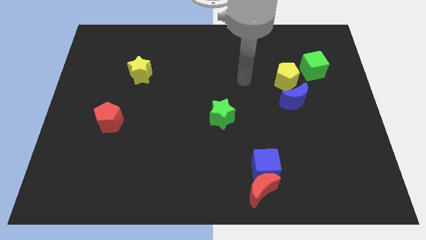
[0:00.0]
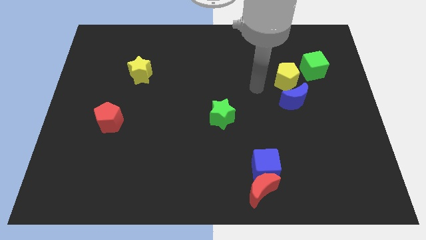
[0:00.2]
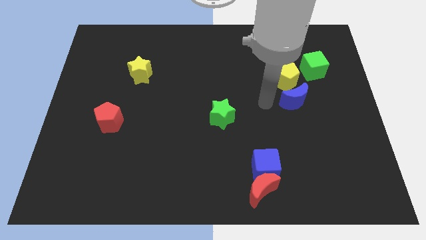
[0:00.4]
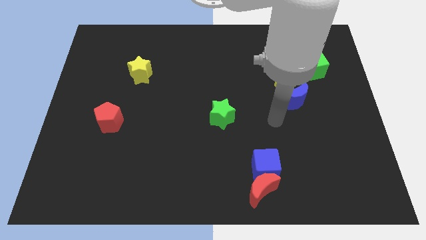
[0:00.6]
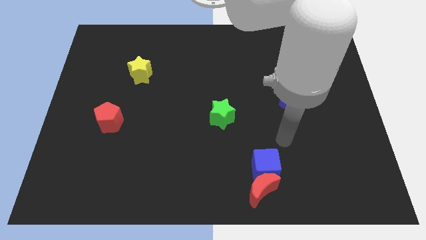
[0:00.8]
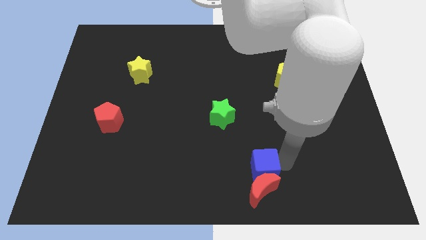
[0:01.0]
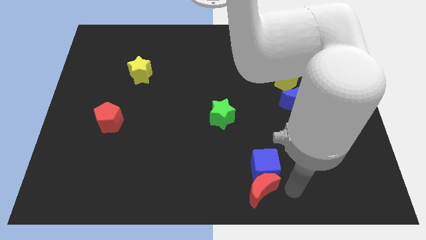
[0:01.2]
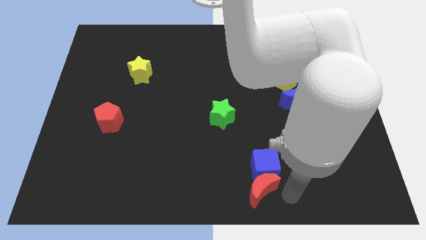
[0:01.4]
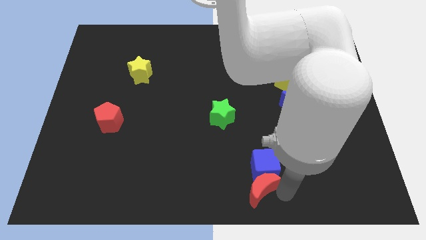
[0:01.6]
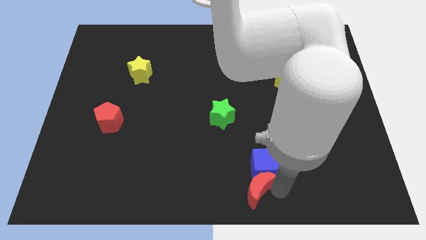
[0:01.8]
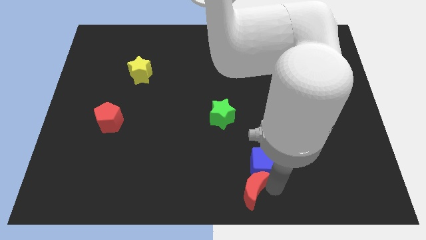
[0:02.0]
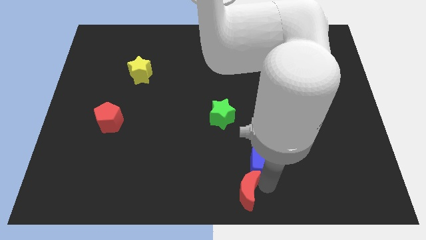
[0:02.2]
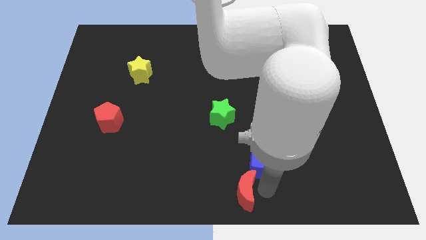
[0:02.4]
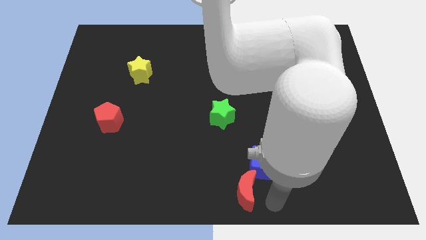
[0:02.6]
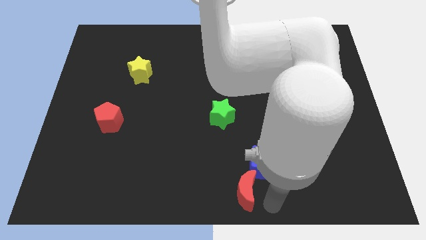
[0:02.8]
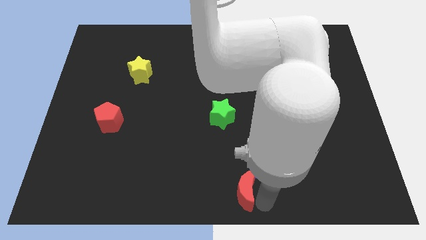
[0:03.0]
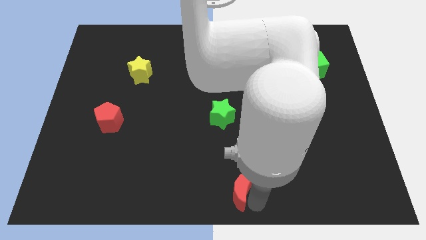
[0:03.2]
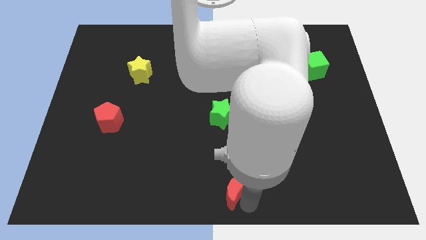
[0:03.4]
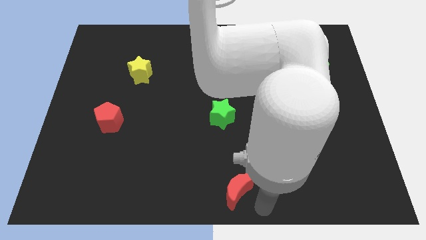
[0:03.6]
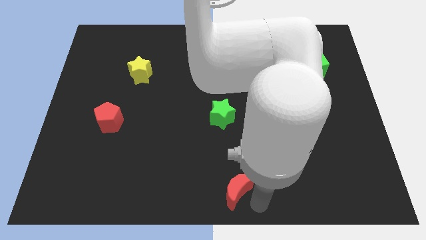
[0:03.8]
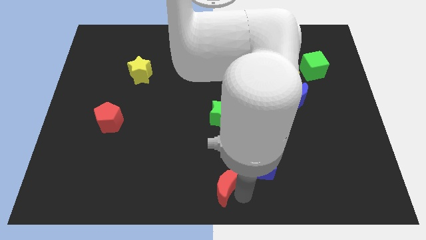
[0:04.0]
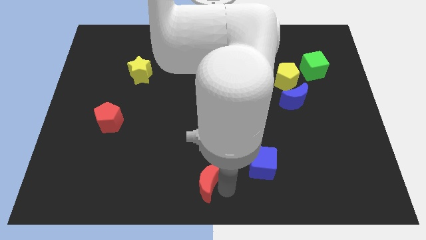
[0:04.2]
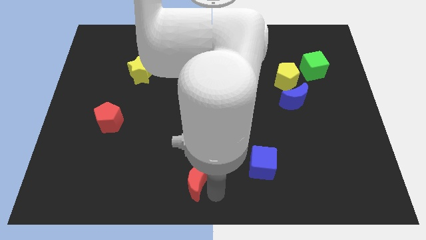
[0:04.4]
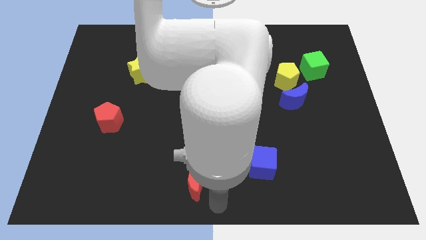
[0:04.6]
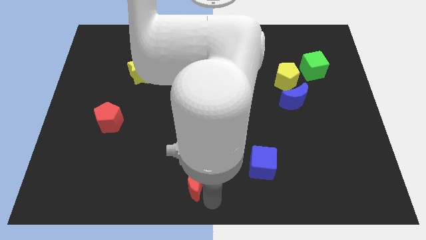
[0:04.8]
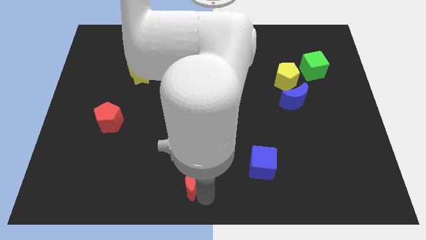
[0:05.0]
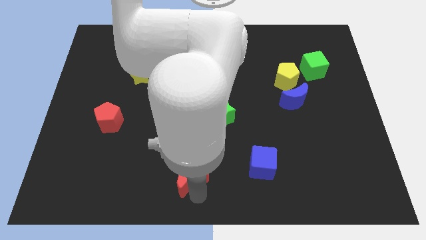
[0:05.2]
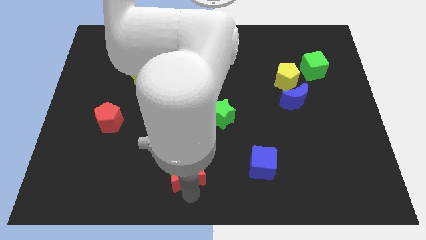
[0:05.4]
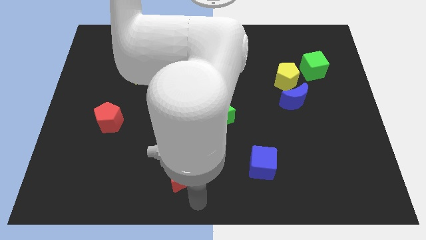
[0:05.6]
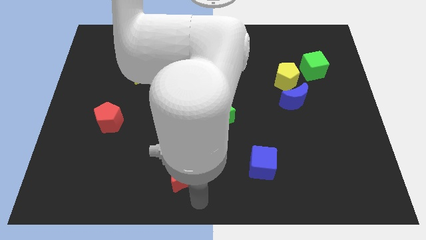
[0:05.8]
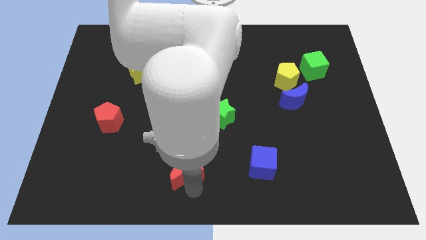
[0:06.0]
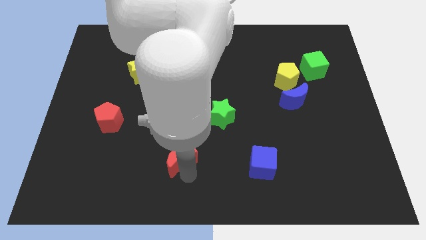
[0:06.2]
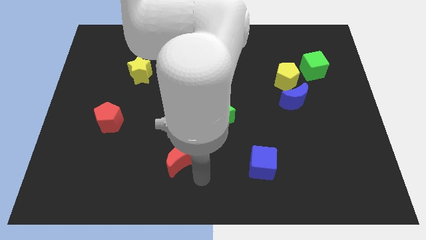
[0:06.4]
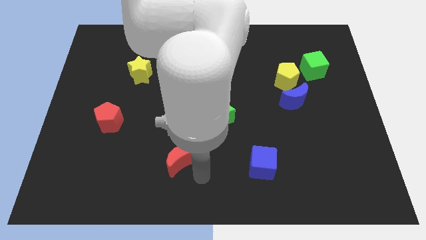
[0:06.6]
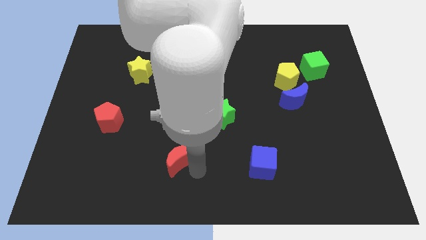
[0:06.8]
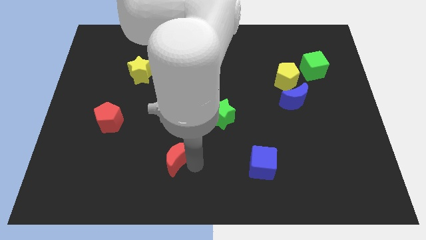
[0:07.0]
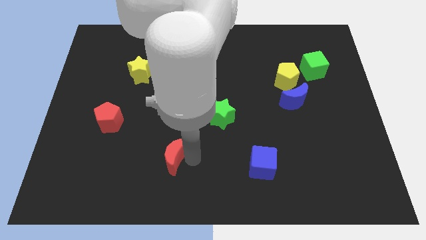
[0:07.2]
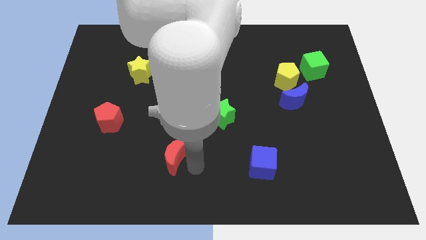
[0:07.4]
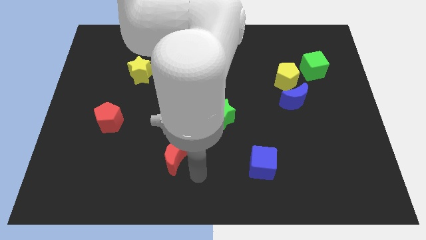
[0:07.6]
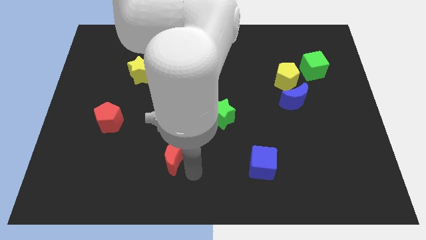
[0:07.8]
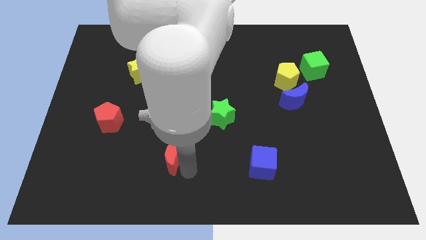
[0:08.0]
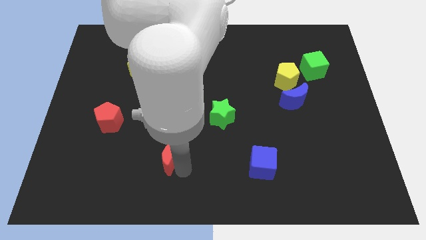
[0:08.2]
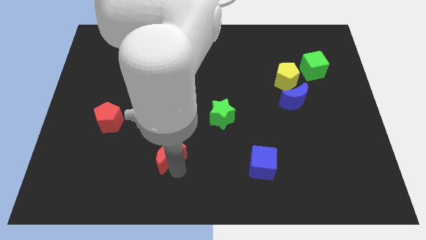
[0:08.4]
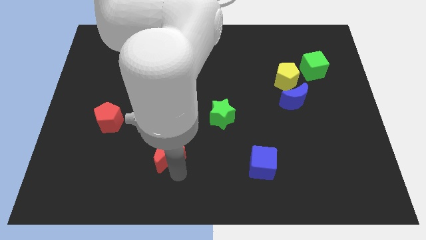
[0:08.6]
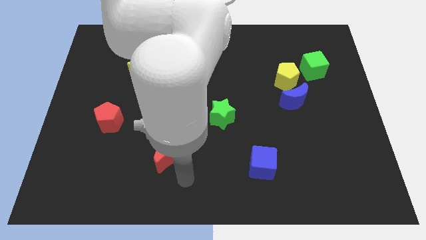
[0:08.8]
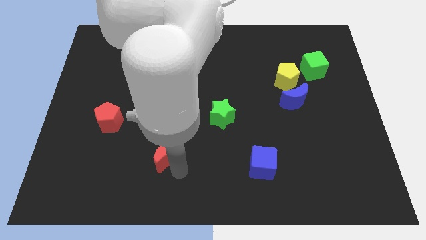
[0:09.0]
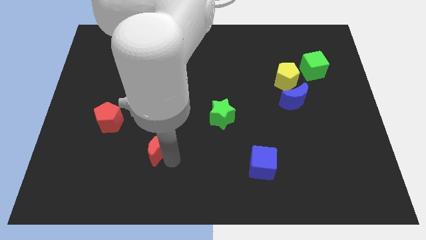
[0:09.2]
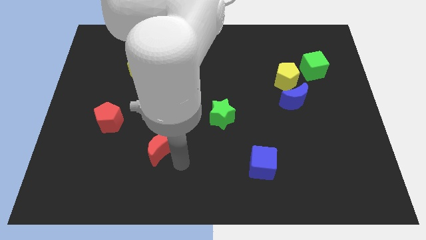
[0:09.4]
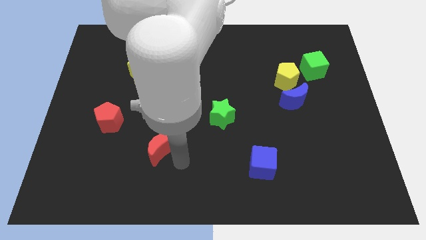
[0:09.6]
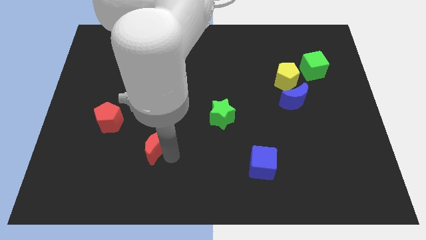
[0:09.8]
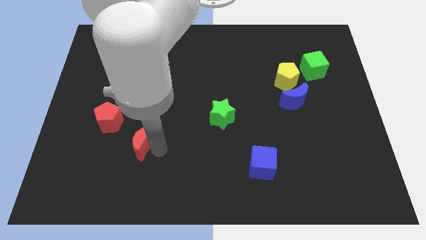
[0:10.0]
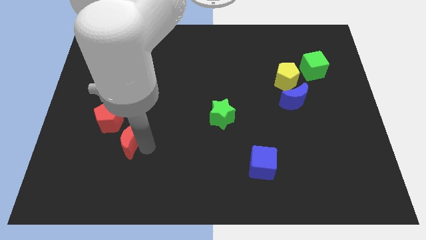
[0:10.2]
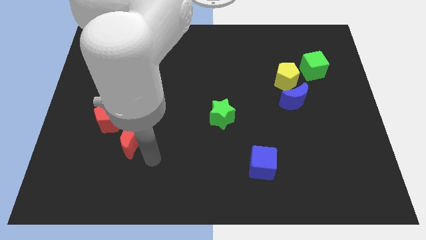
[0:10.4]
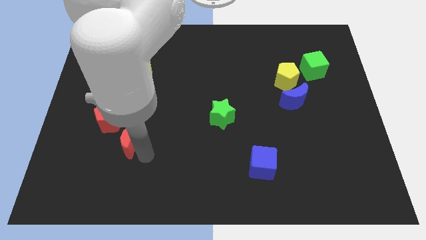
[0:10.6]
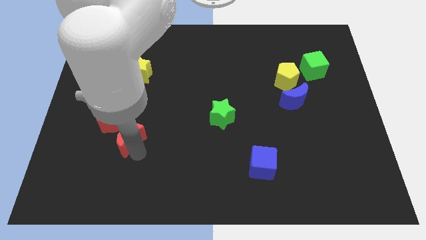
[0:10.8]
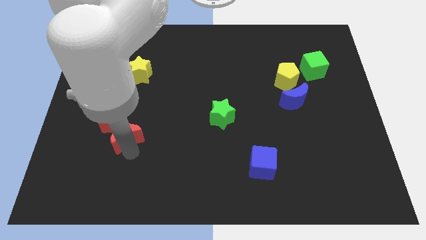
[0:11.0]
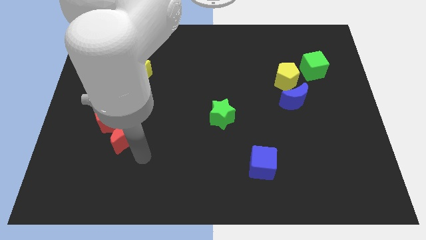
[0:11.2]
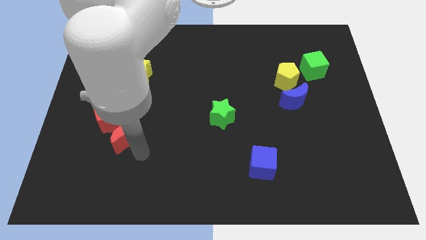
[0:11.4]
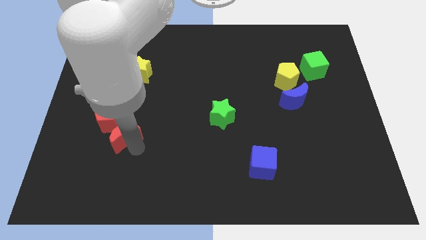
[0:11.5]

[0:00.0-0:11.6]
move the red moon next to the red pentagon

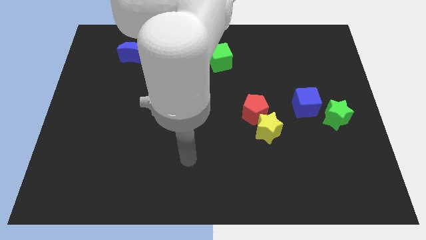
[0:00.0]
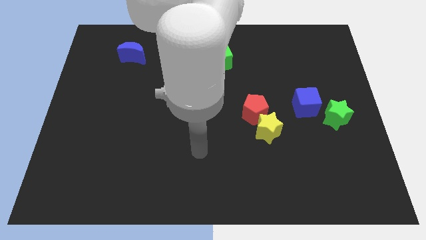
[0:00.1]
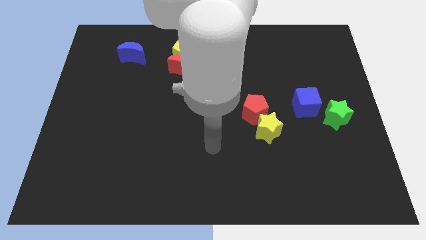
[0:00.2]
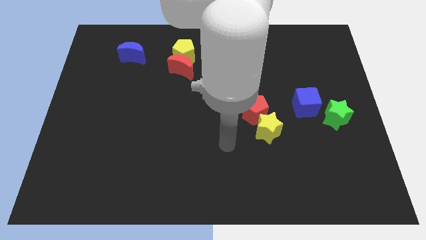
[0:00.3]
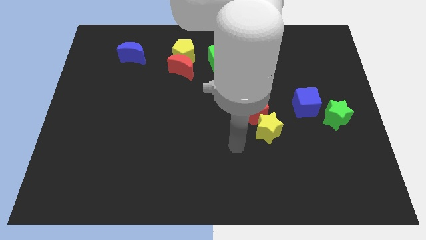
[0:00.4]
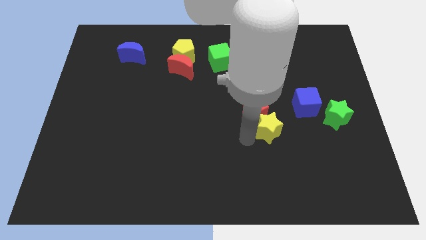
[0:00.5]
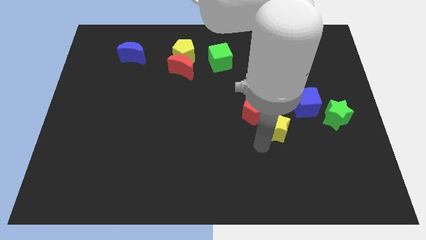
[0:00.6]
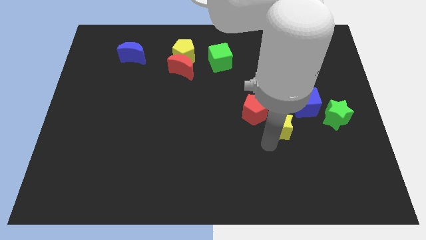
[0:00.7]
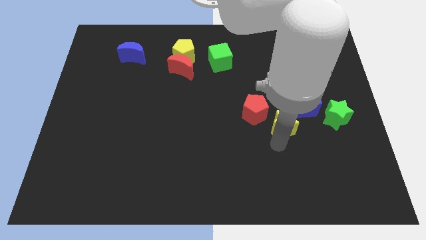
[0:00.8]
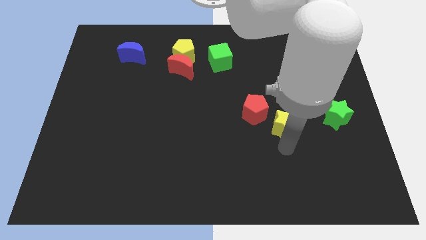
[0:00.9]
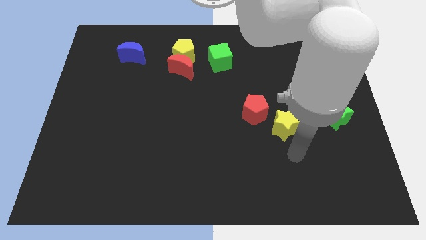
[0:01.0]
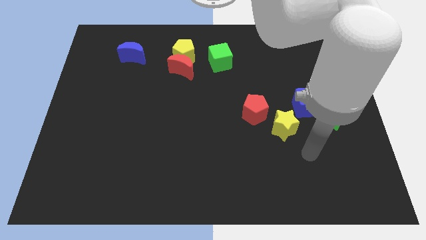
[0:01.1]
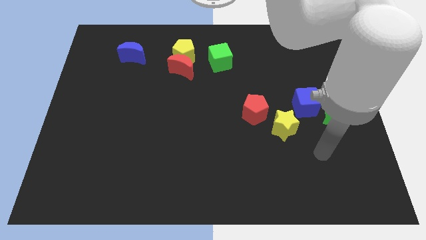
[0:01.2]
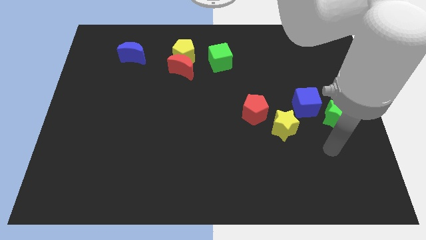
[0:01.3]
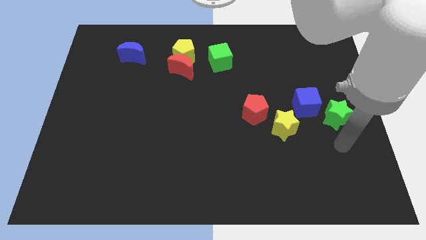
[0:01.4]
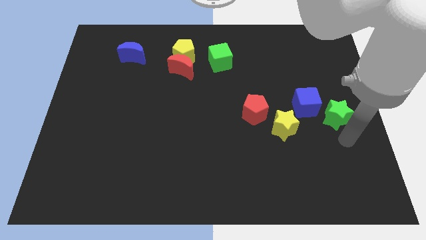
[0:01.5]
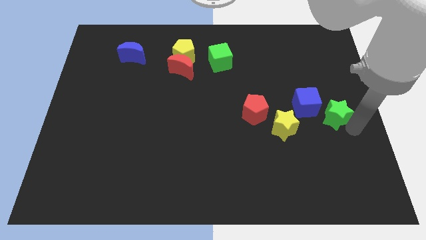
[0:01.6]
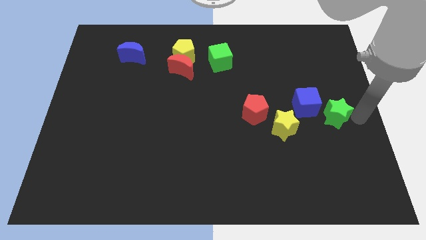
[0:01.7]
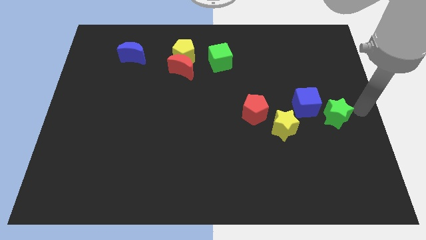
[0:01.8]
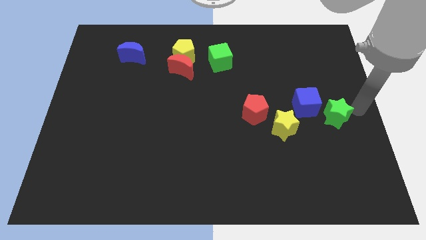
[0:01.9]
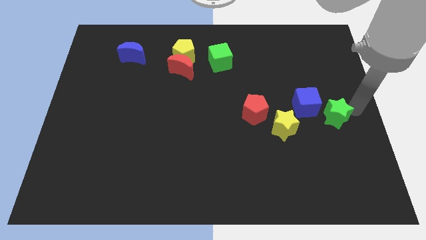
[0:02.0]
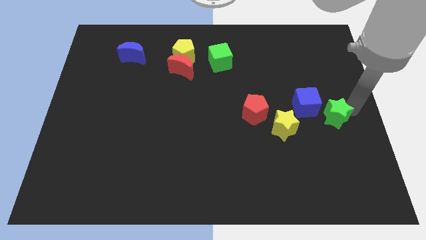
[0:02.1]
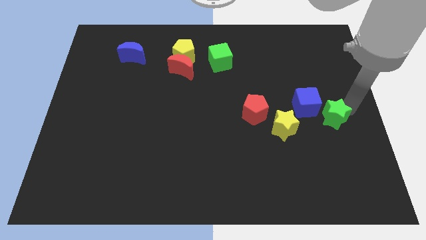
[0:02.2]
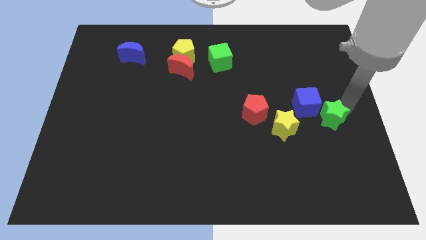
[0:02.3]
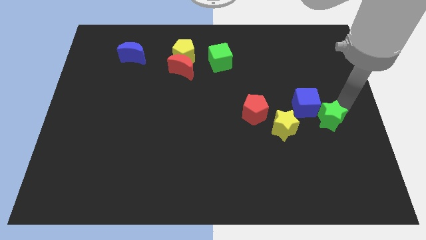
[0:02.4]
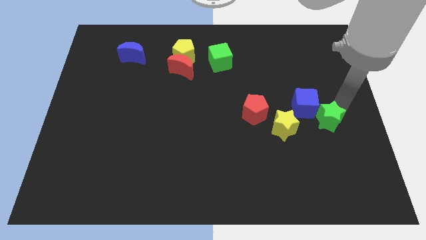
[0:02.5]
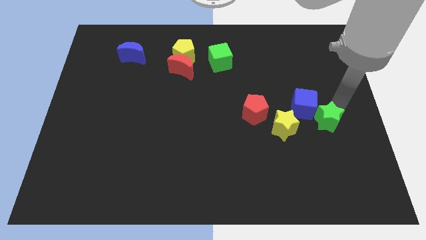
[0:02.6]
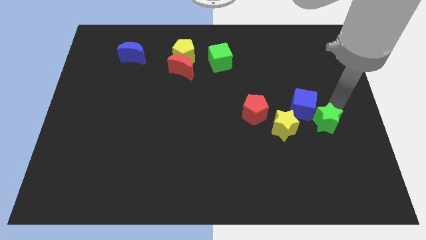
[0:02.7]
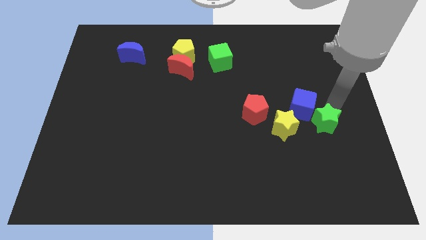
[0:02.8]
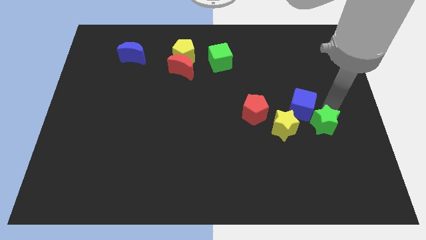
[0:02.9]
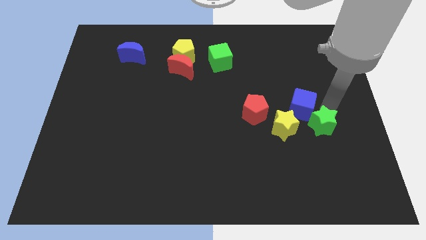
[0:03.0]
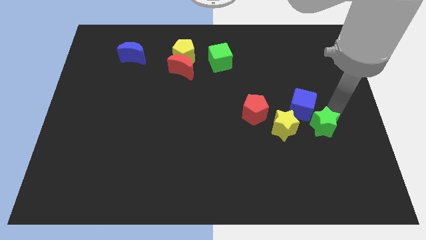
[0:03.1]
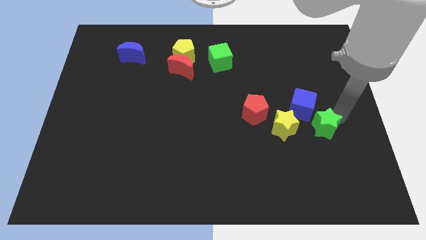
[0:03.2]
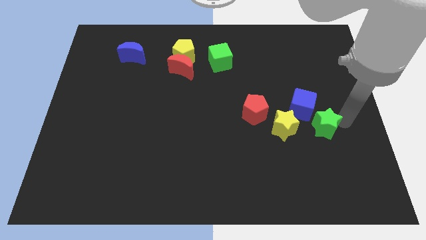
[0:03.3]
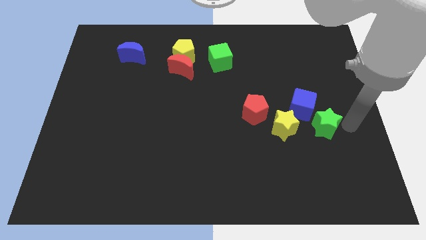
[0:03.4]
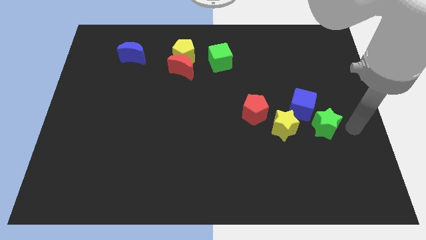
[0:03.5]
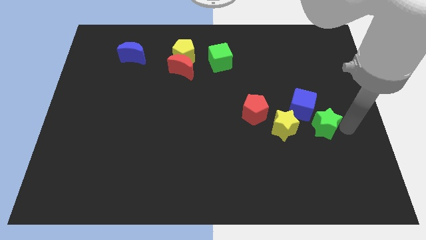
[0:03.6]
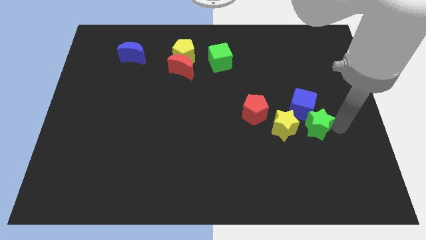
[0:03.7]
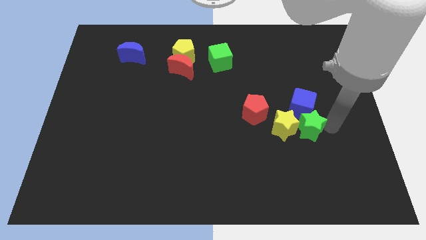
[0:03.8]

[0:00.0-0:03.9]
put the green star next to the yellow star
